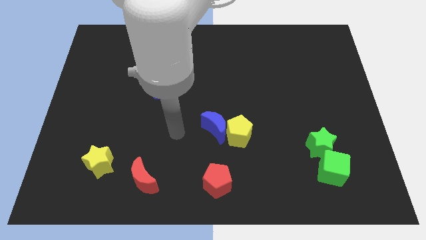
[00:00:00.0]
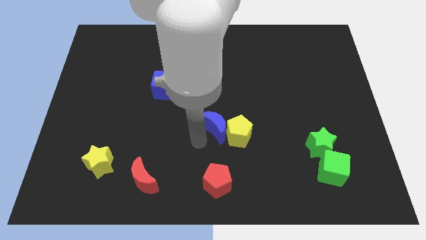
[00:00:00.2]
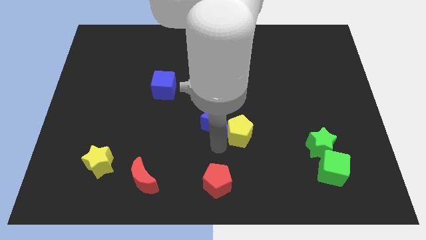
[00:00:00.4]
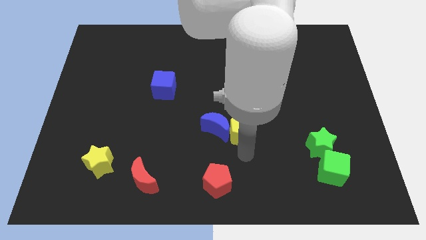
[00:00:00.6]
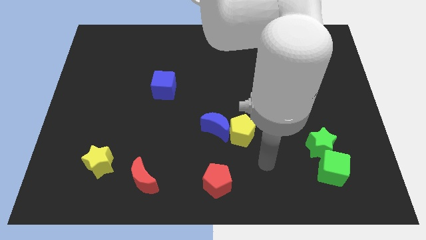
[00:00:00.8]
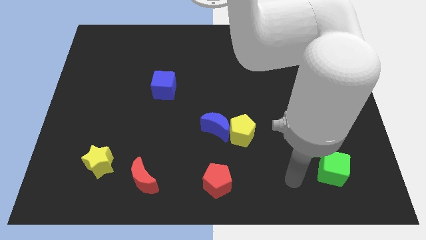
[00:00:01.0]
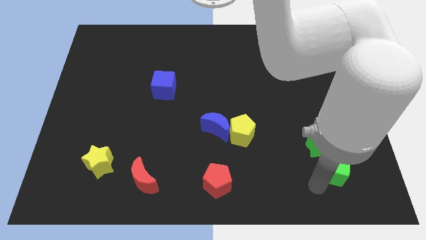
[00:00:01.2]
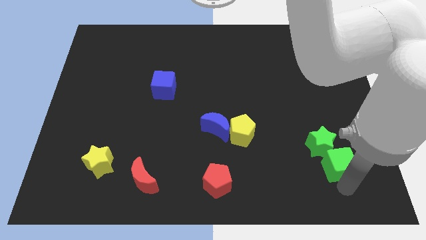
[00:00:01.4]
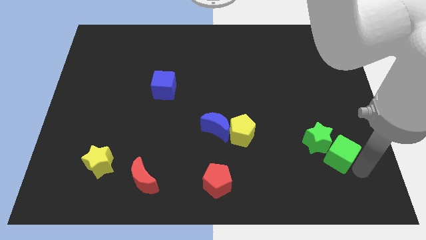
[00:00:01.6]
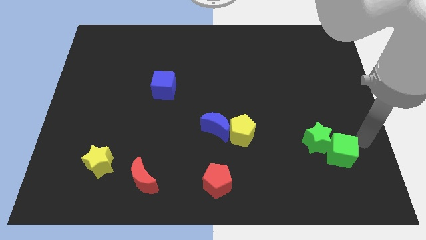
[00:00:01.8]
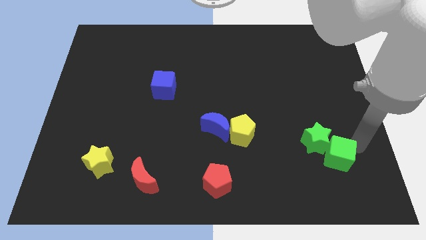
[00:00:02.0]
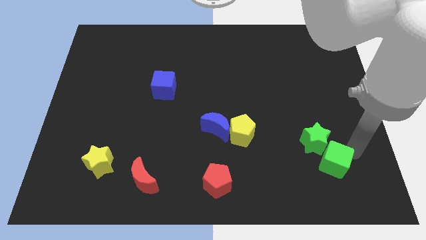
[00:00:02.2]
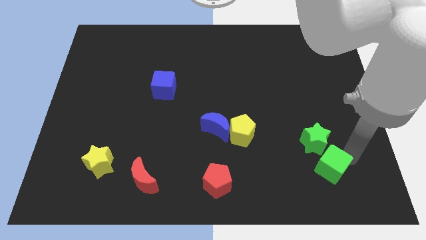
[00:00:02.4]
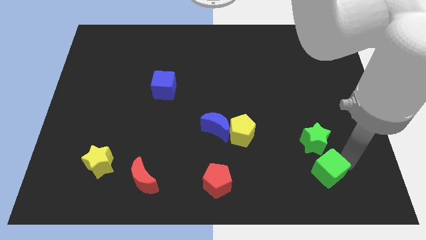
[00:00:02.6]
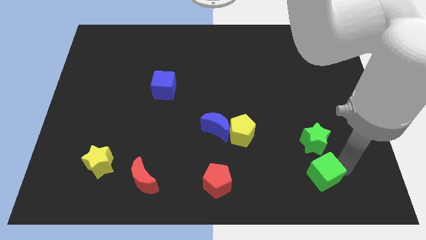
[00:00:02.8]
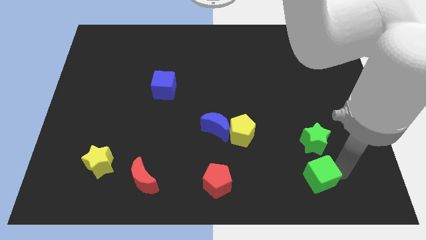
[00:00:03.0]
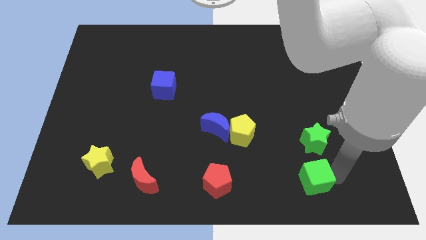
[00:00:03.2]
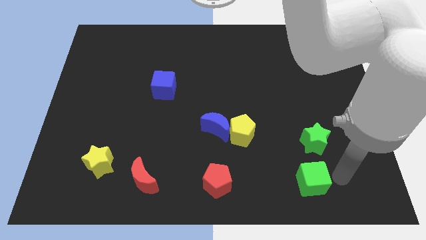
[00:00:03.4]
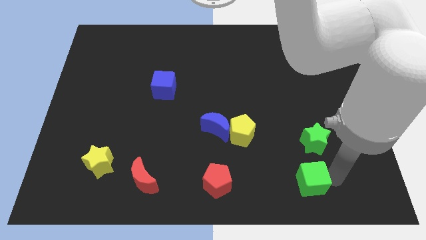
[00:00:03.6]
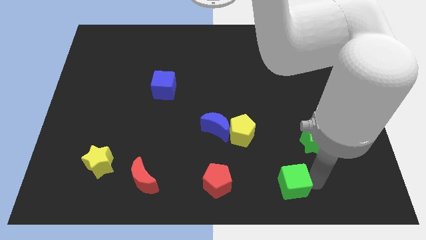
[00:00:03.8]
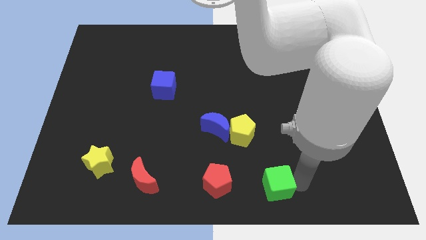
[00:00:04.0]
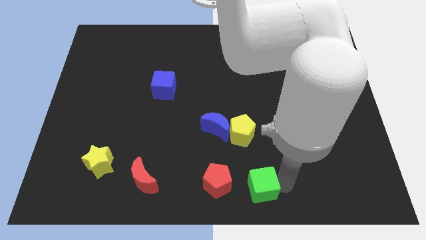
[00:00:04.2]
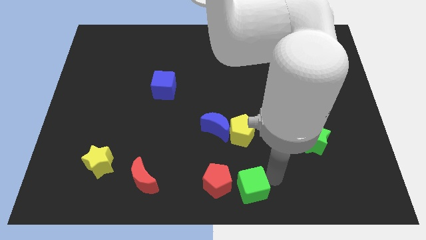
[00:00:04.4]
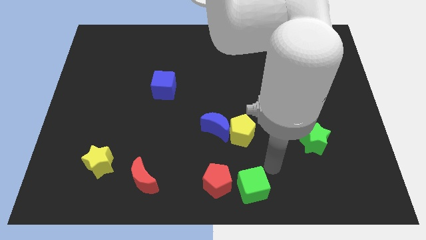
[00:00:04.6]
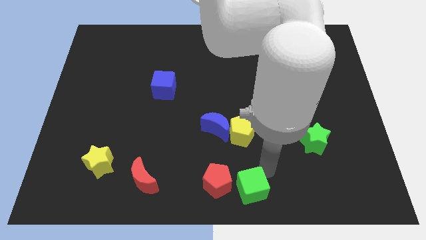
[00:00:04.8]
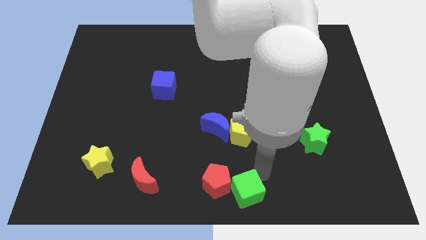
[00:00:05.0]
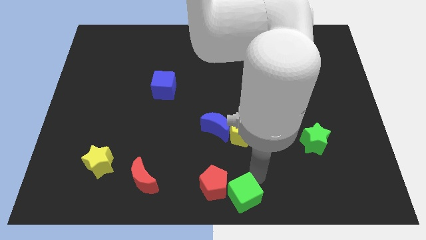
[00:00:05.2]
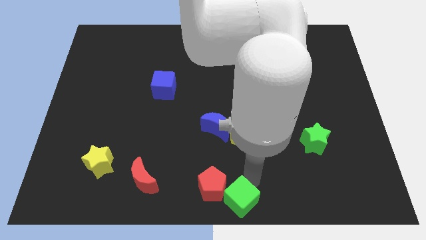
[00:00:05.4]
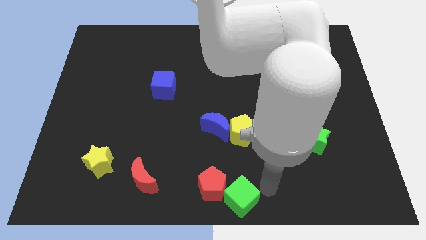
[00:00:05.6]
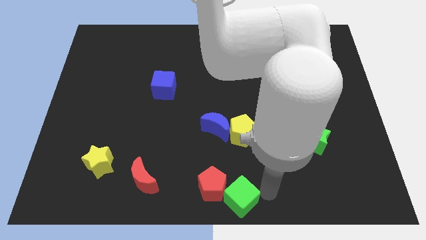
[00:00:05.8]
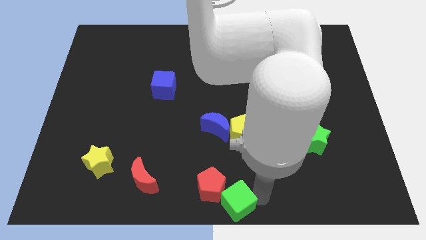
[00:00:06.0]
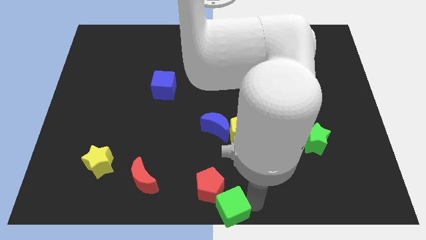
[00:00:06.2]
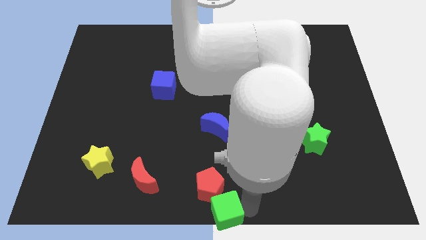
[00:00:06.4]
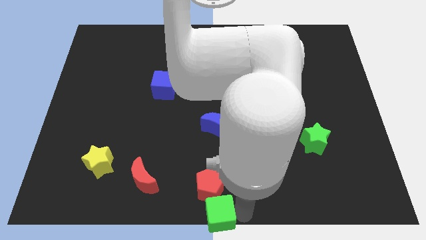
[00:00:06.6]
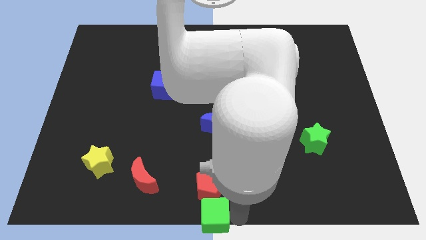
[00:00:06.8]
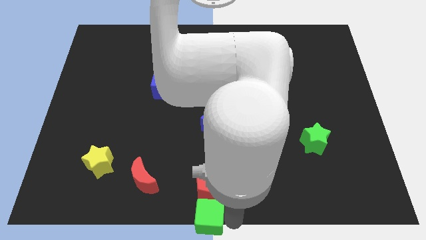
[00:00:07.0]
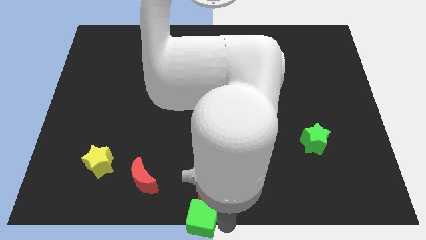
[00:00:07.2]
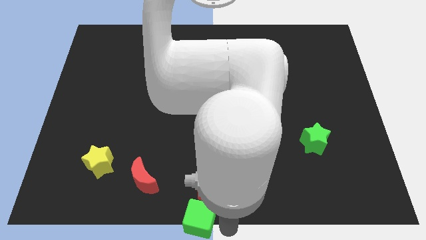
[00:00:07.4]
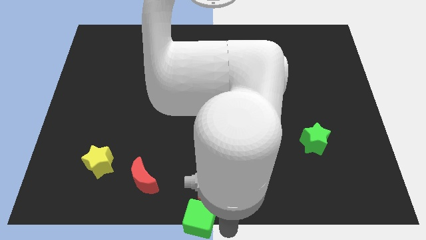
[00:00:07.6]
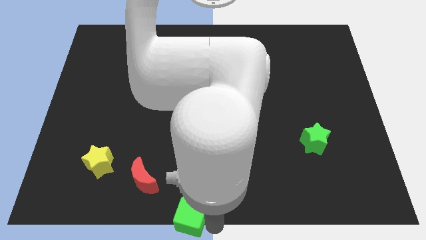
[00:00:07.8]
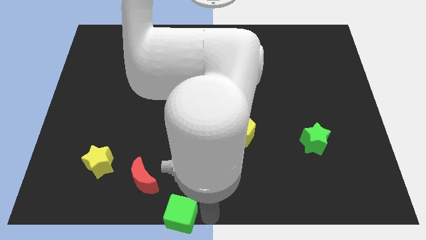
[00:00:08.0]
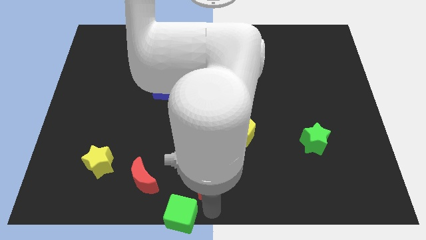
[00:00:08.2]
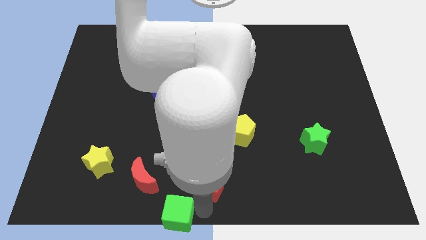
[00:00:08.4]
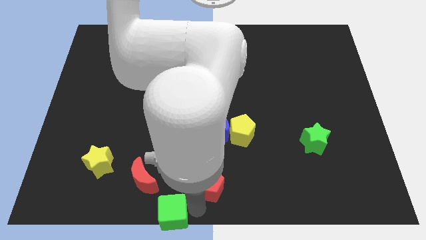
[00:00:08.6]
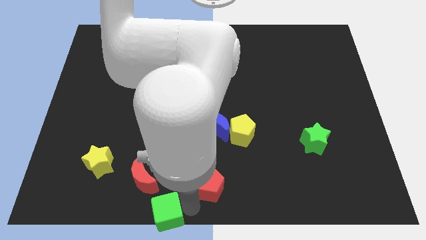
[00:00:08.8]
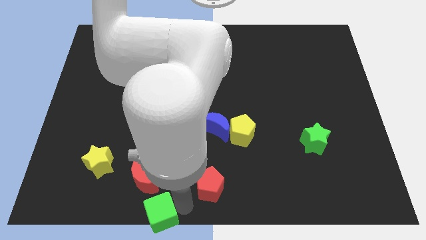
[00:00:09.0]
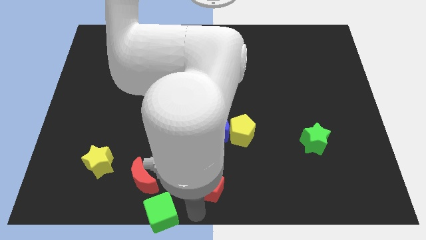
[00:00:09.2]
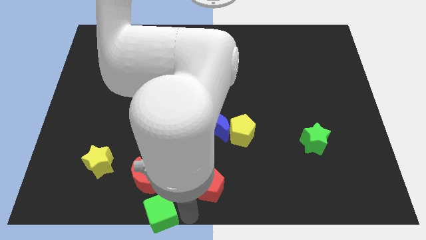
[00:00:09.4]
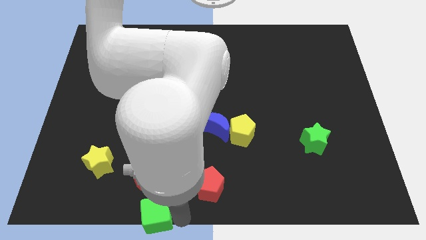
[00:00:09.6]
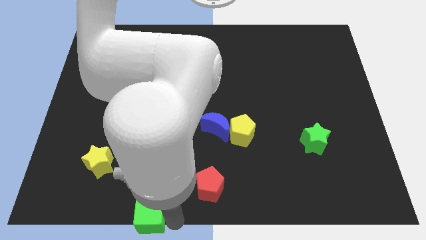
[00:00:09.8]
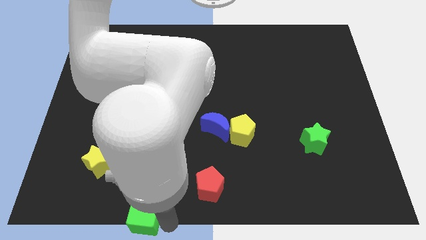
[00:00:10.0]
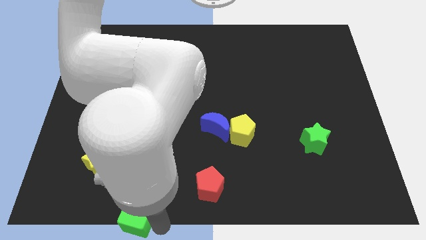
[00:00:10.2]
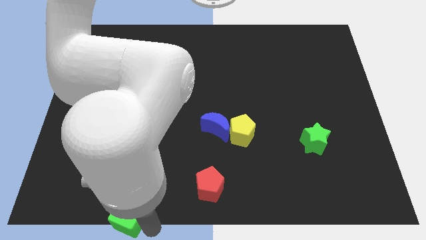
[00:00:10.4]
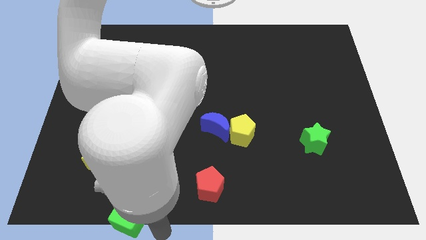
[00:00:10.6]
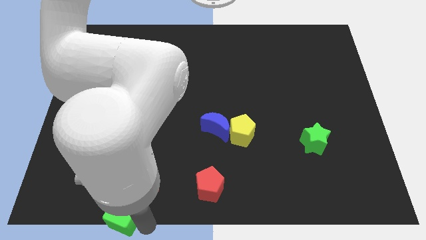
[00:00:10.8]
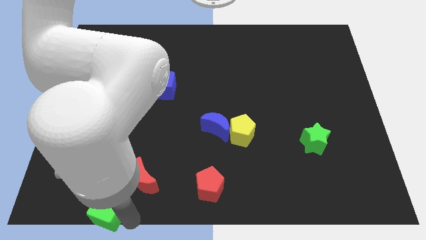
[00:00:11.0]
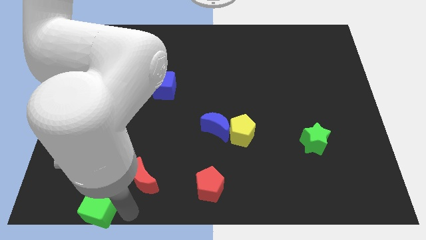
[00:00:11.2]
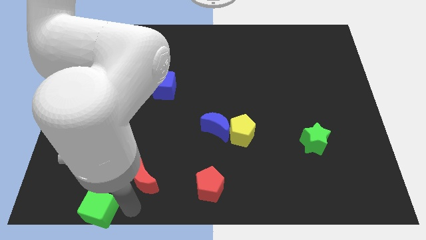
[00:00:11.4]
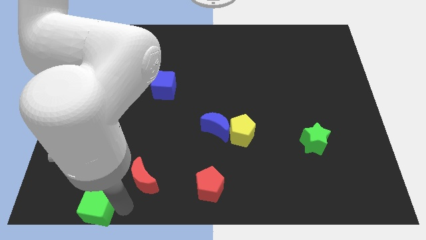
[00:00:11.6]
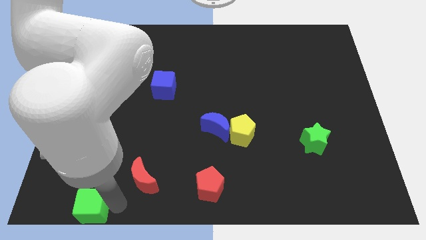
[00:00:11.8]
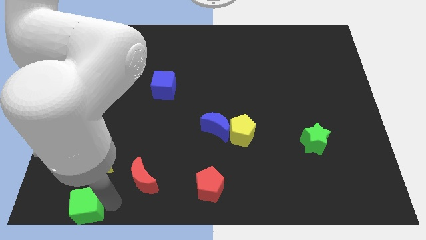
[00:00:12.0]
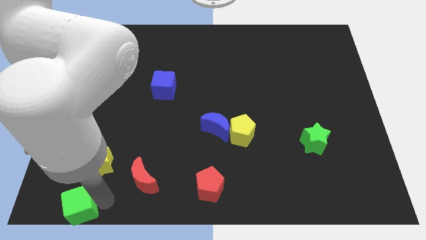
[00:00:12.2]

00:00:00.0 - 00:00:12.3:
put the green cube to the bottom left of the board

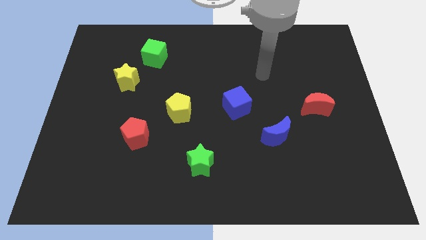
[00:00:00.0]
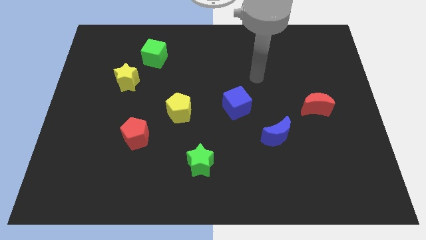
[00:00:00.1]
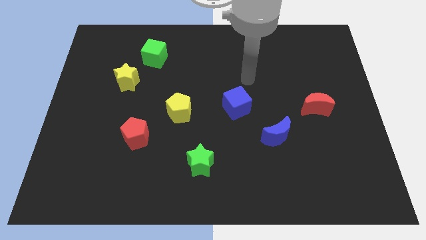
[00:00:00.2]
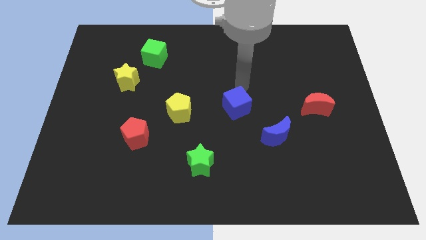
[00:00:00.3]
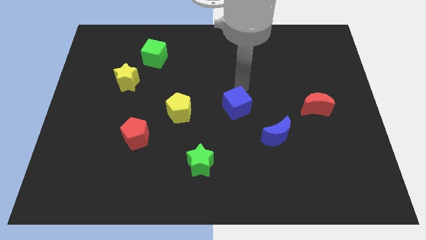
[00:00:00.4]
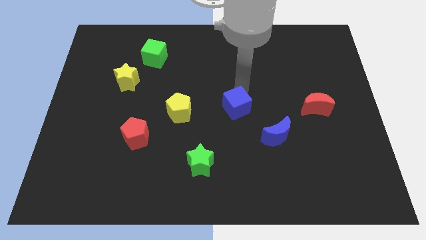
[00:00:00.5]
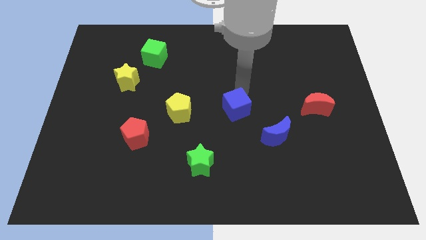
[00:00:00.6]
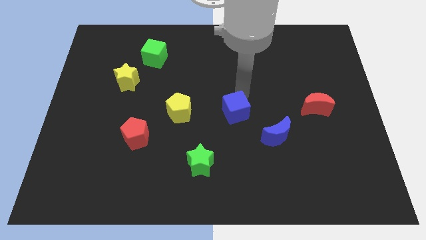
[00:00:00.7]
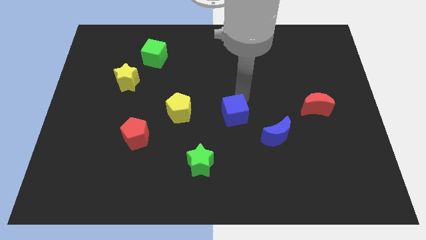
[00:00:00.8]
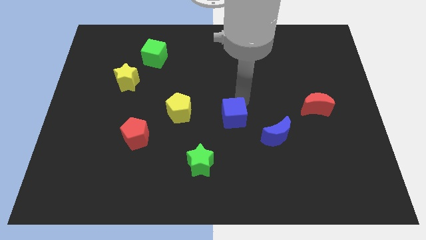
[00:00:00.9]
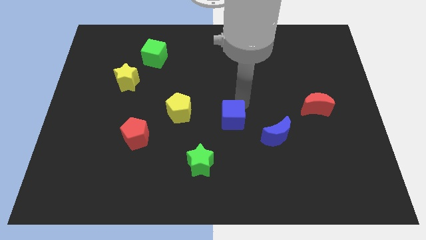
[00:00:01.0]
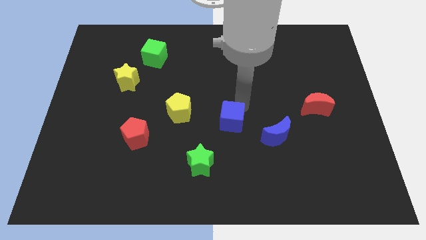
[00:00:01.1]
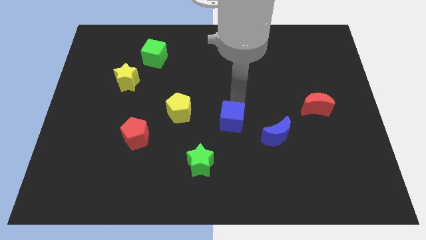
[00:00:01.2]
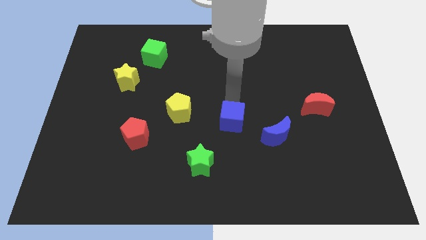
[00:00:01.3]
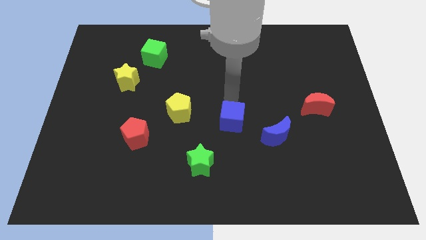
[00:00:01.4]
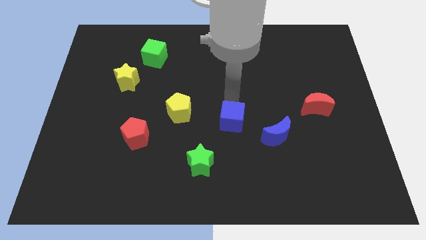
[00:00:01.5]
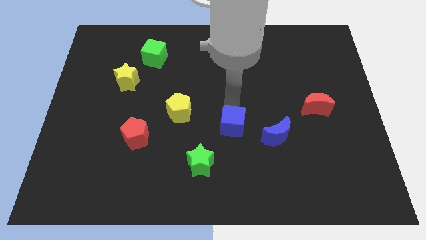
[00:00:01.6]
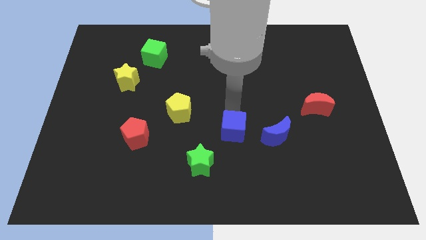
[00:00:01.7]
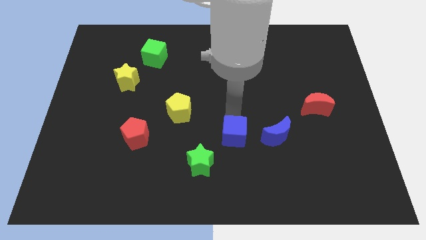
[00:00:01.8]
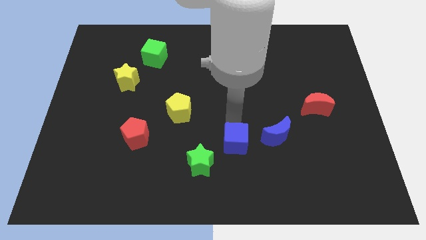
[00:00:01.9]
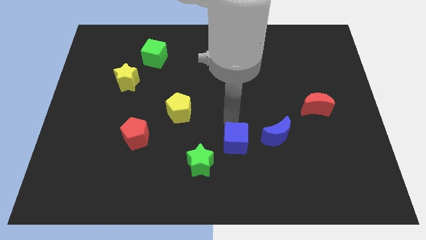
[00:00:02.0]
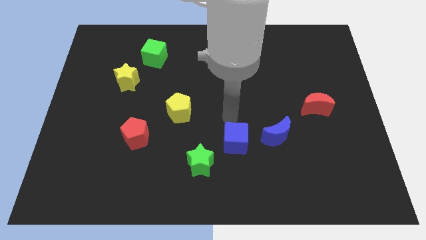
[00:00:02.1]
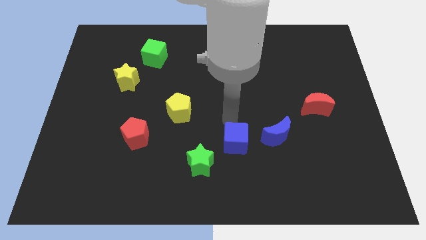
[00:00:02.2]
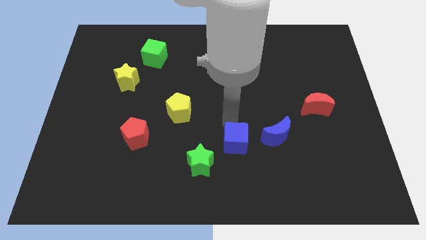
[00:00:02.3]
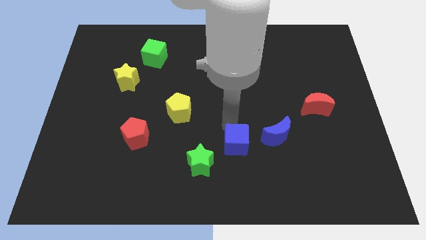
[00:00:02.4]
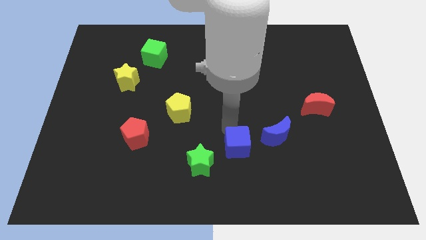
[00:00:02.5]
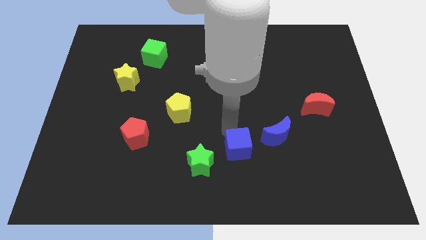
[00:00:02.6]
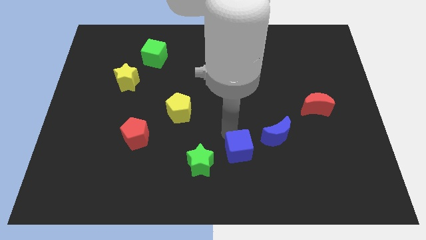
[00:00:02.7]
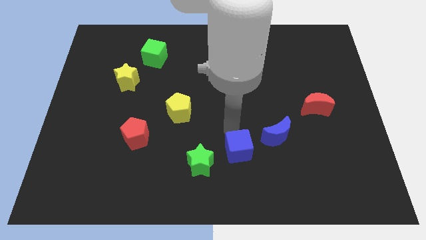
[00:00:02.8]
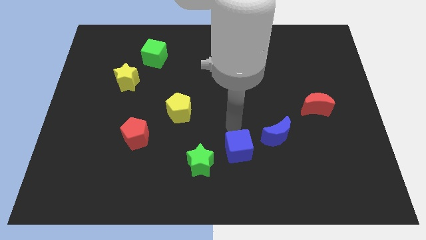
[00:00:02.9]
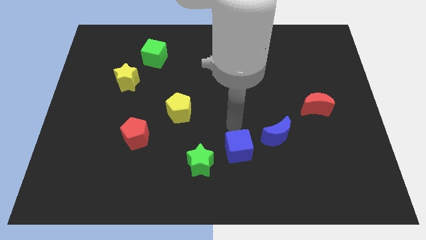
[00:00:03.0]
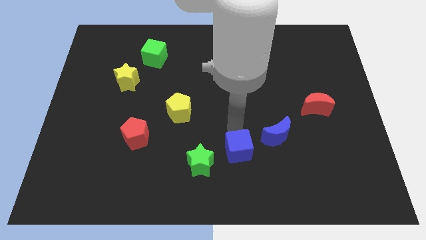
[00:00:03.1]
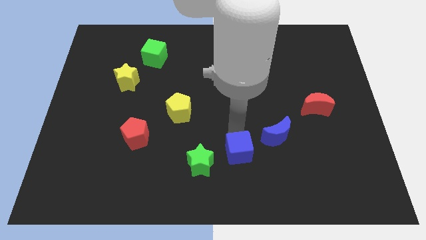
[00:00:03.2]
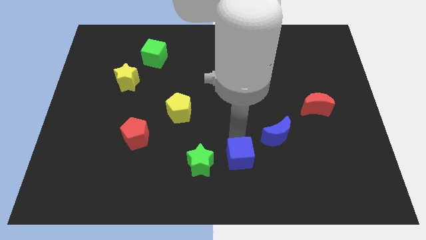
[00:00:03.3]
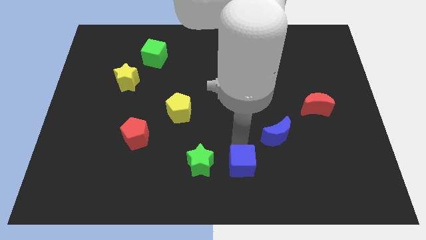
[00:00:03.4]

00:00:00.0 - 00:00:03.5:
move the blue cube to the bottom
